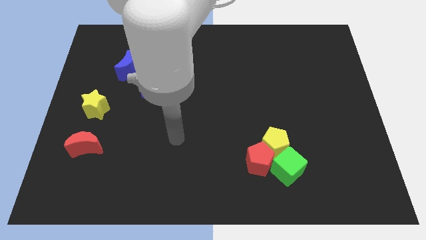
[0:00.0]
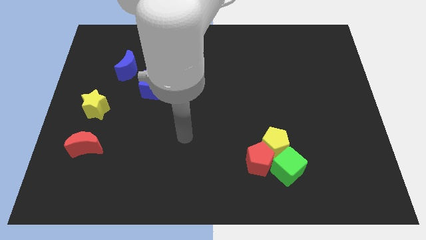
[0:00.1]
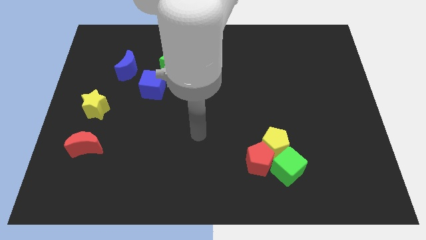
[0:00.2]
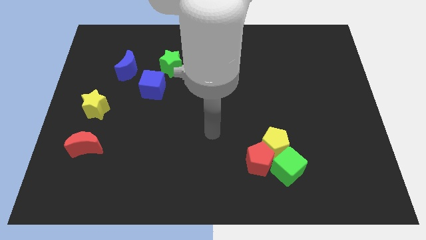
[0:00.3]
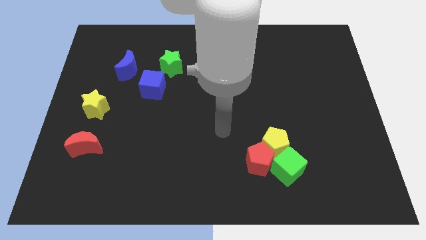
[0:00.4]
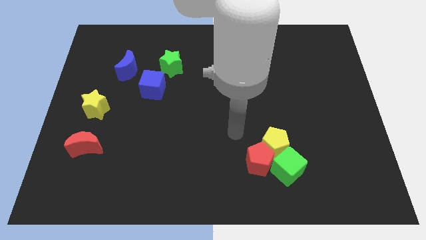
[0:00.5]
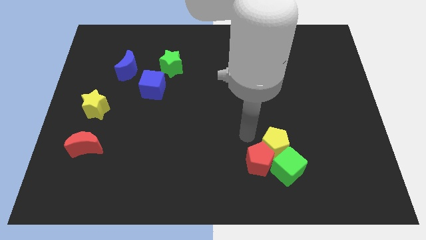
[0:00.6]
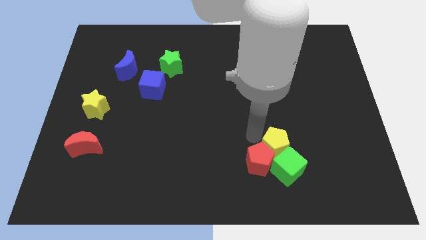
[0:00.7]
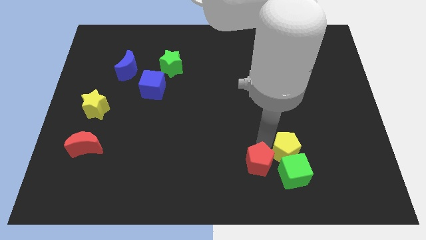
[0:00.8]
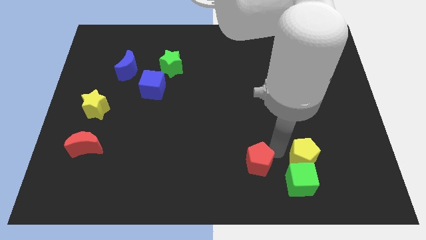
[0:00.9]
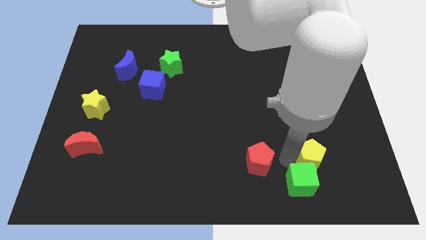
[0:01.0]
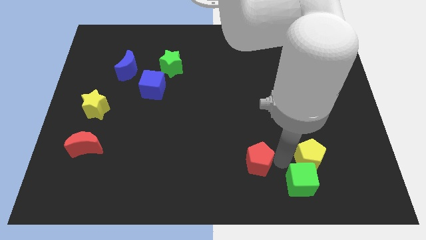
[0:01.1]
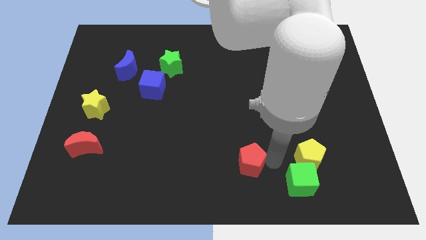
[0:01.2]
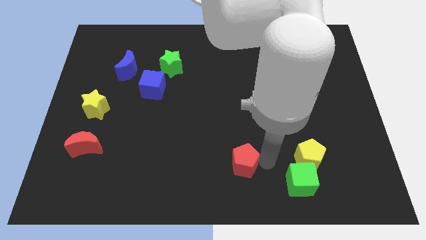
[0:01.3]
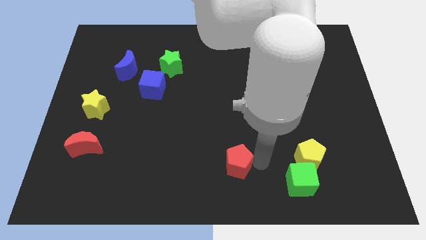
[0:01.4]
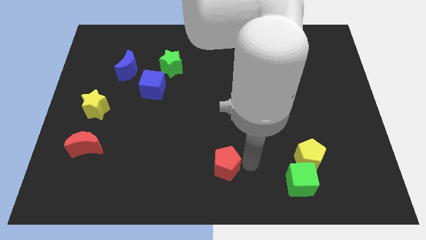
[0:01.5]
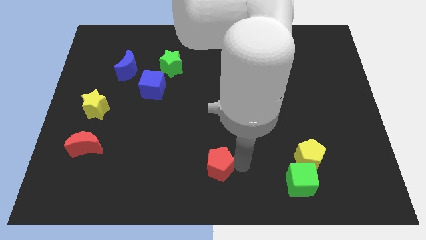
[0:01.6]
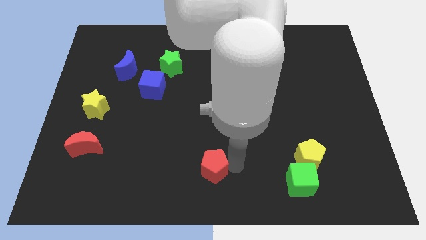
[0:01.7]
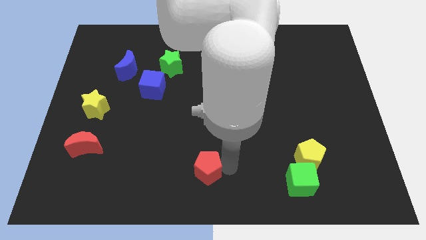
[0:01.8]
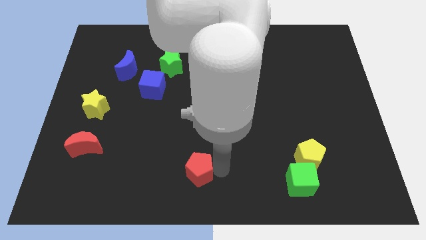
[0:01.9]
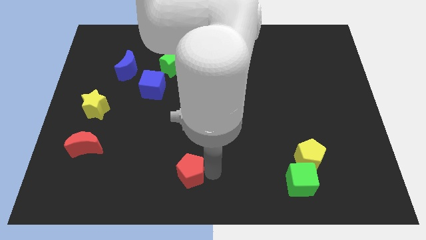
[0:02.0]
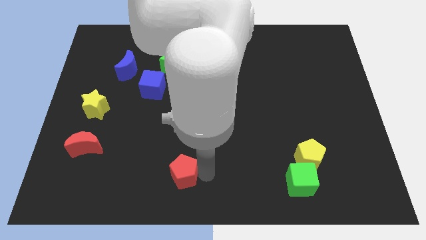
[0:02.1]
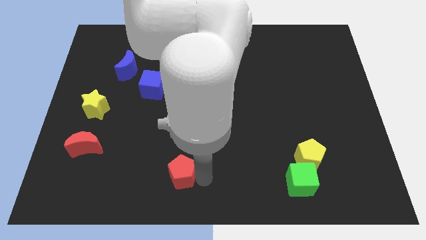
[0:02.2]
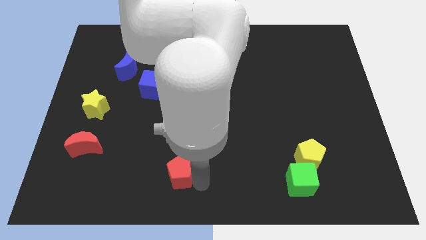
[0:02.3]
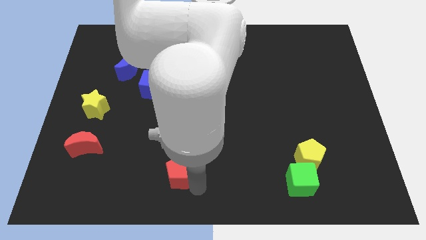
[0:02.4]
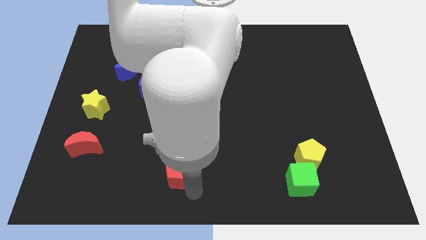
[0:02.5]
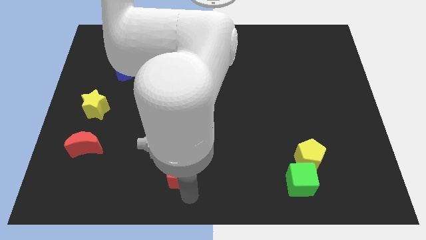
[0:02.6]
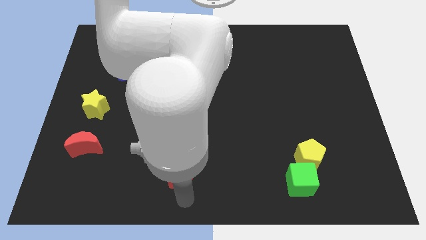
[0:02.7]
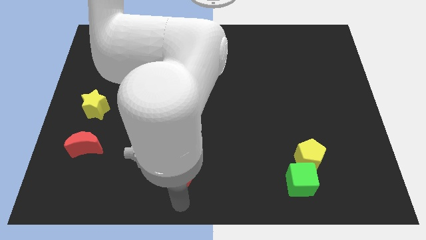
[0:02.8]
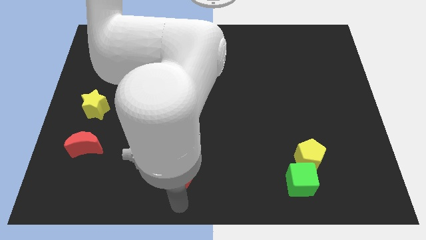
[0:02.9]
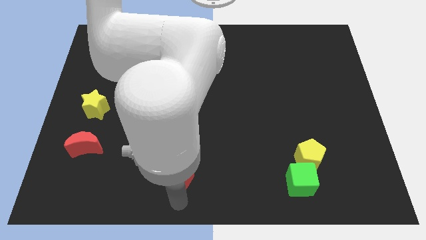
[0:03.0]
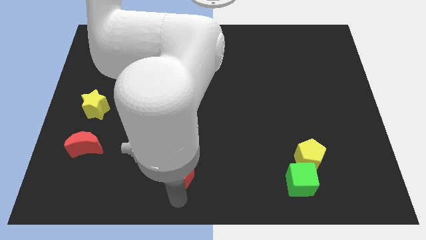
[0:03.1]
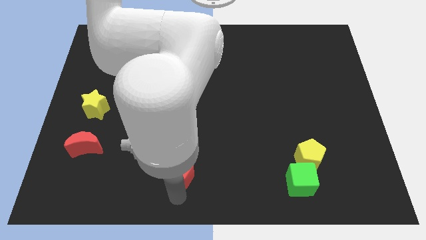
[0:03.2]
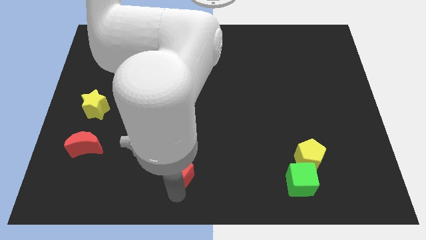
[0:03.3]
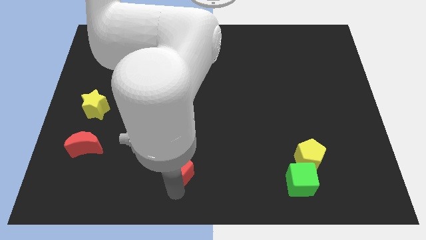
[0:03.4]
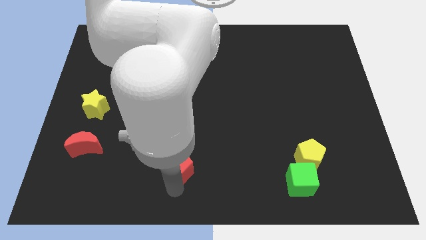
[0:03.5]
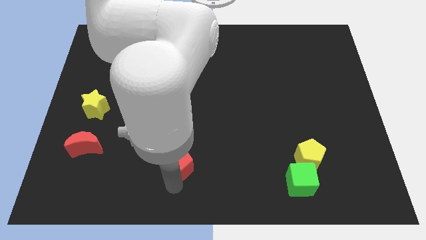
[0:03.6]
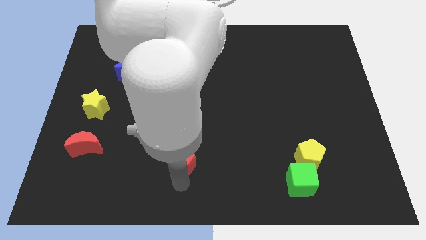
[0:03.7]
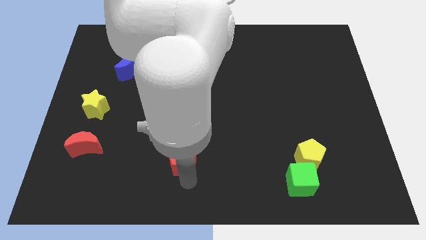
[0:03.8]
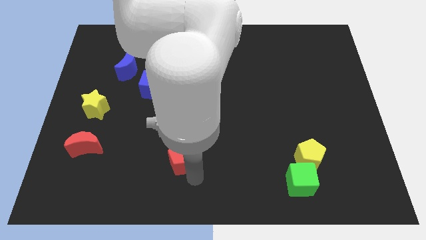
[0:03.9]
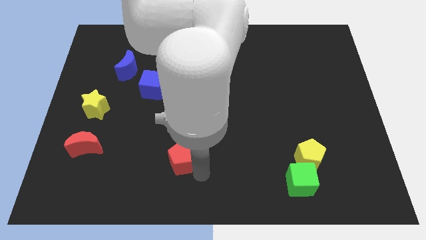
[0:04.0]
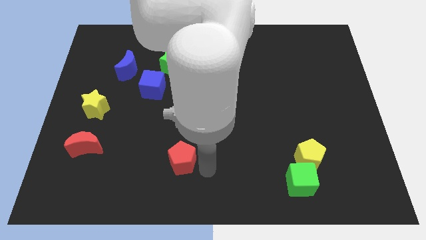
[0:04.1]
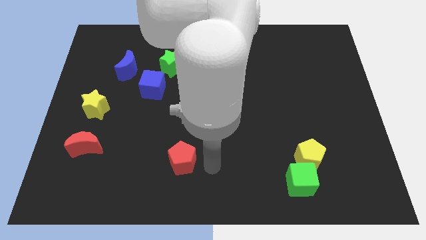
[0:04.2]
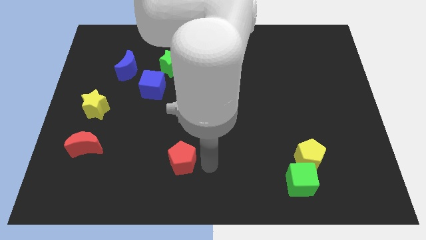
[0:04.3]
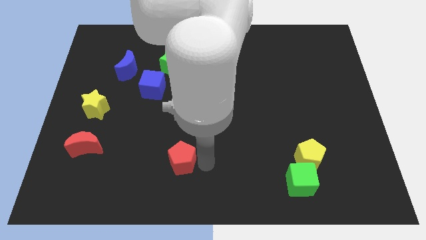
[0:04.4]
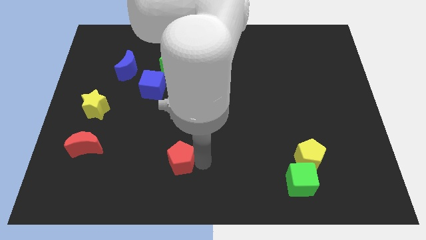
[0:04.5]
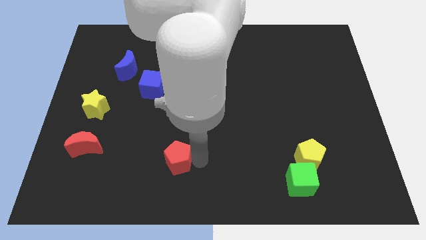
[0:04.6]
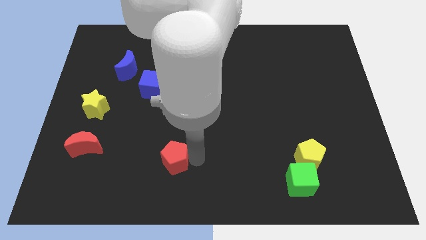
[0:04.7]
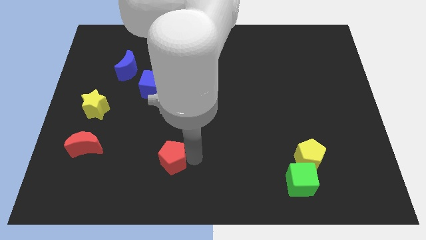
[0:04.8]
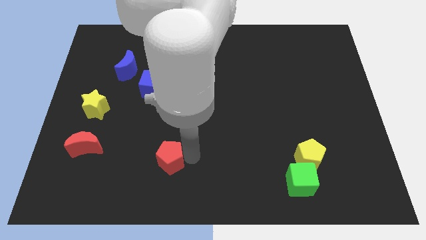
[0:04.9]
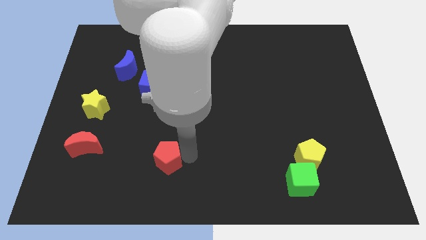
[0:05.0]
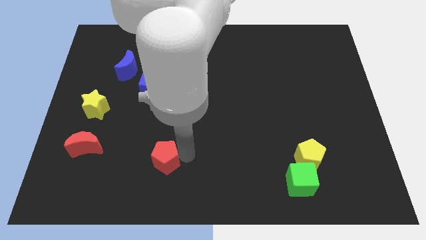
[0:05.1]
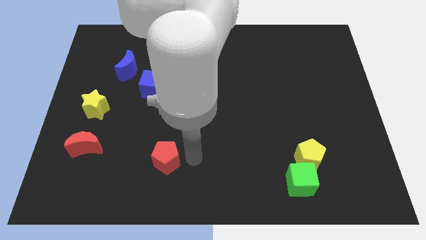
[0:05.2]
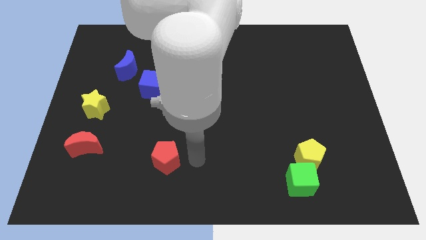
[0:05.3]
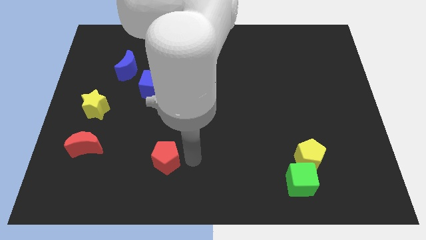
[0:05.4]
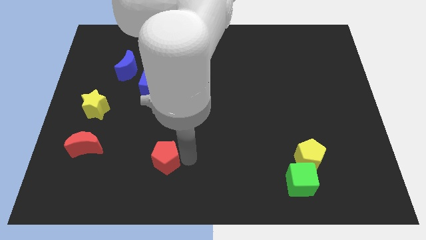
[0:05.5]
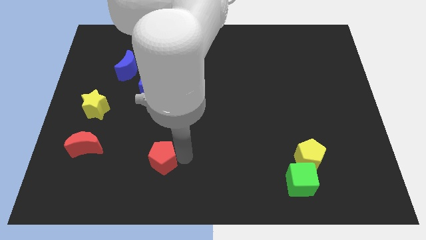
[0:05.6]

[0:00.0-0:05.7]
push the red pentagon left

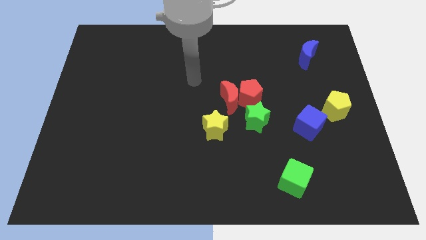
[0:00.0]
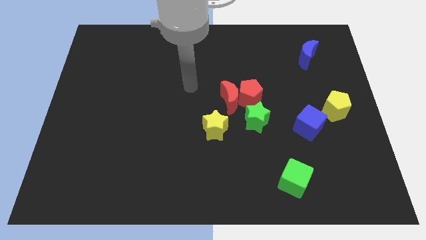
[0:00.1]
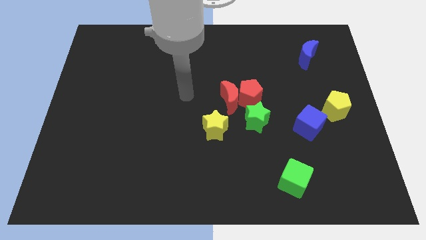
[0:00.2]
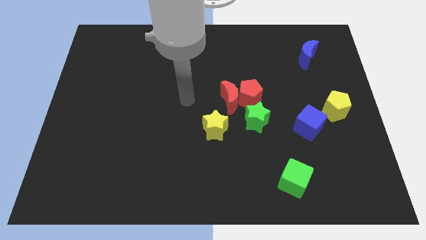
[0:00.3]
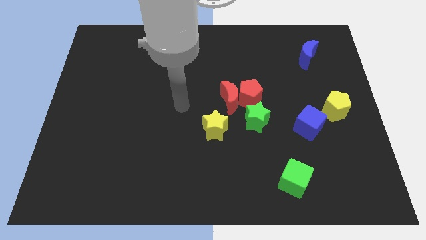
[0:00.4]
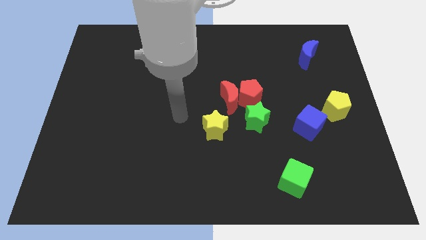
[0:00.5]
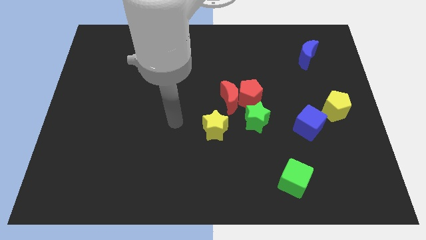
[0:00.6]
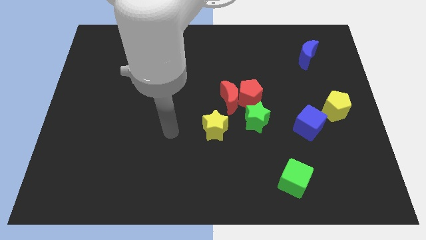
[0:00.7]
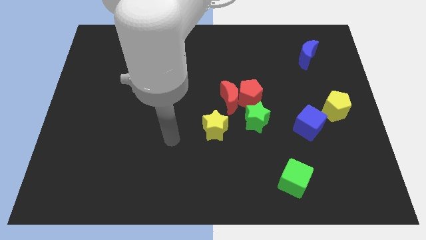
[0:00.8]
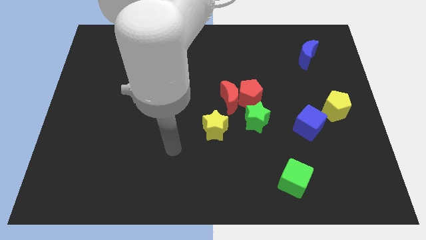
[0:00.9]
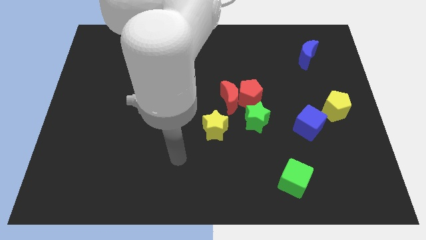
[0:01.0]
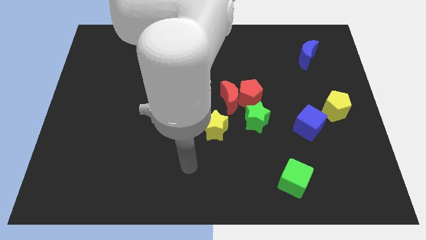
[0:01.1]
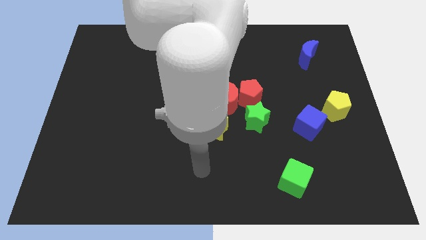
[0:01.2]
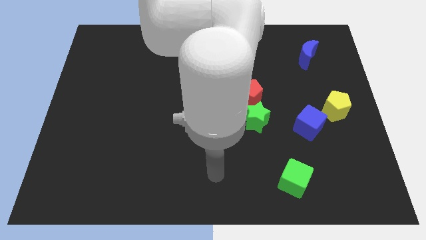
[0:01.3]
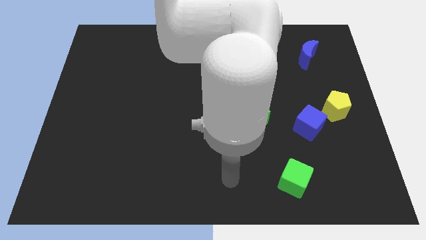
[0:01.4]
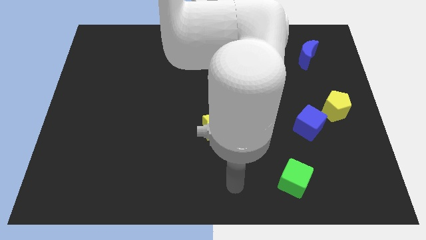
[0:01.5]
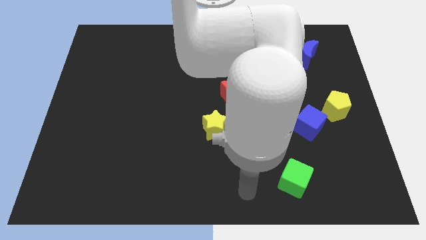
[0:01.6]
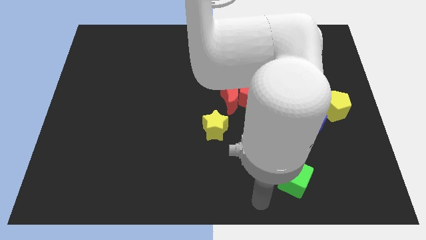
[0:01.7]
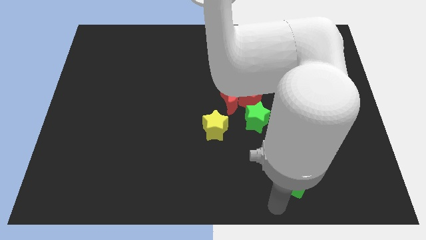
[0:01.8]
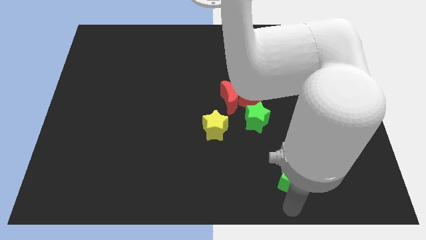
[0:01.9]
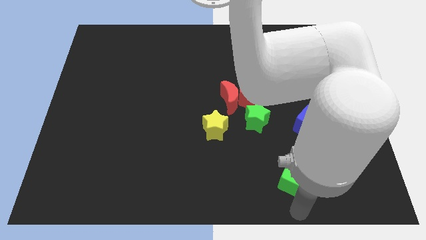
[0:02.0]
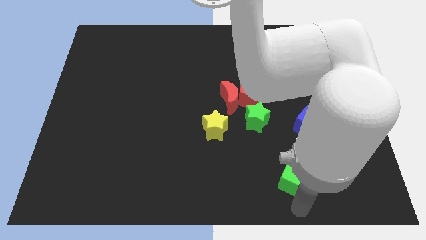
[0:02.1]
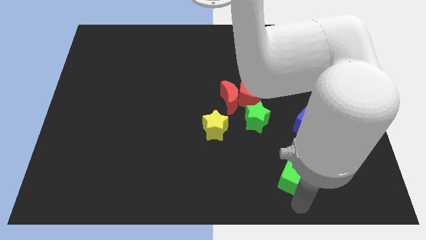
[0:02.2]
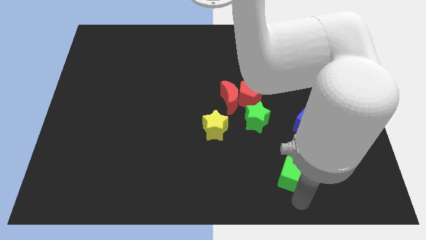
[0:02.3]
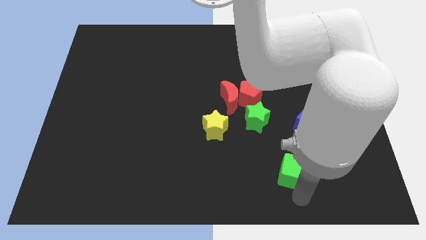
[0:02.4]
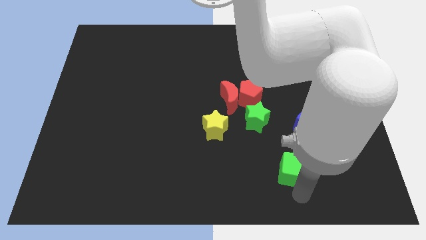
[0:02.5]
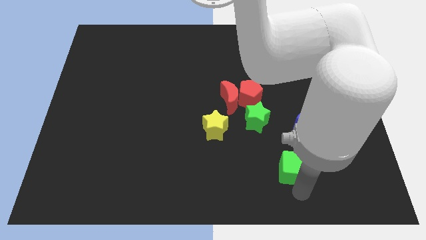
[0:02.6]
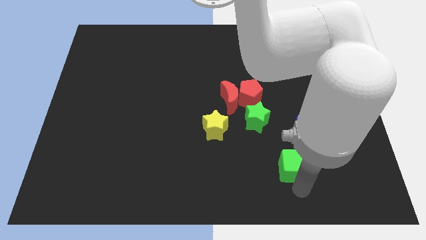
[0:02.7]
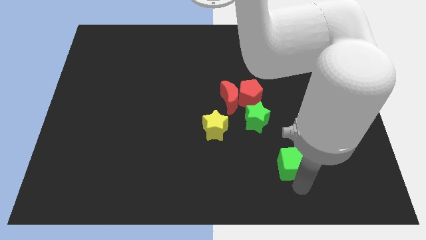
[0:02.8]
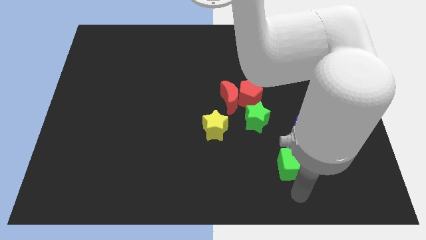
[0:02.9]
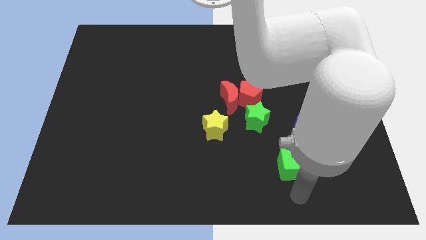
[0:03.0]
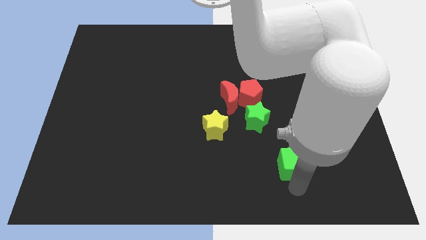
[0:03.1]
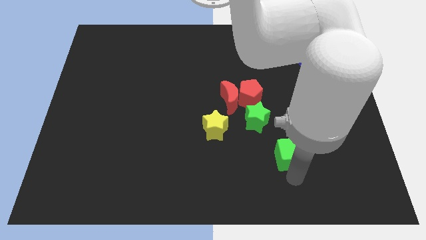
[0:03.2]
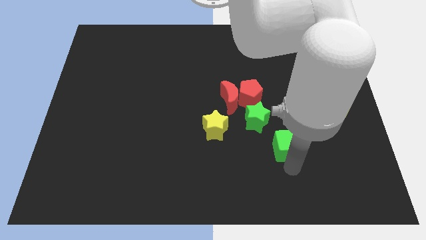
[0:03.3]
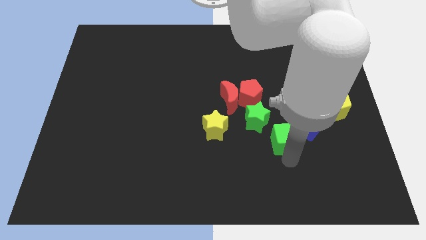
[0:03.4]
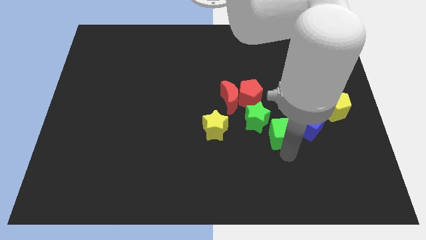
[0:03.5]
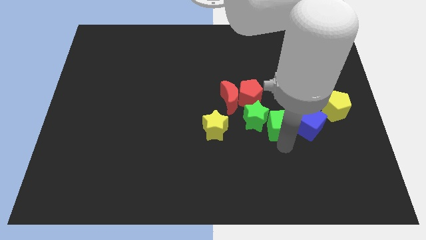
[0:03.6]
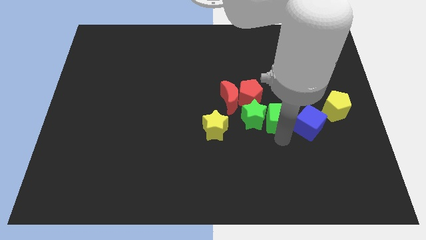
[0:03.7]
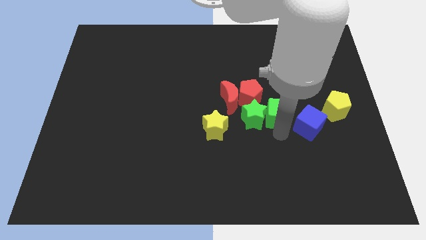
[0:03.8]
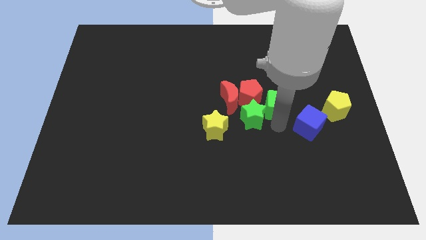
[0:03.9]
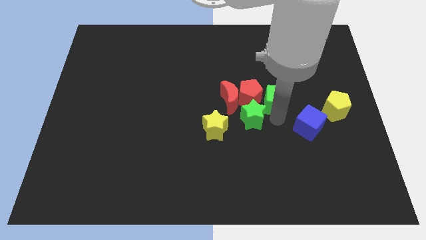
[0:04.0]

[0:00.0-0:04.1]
push the green cube upwards
